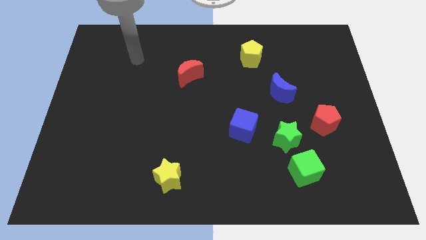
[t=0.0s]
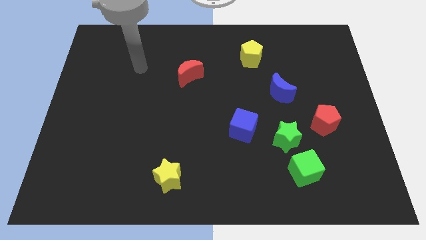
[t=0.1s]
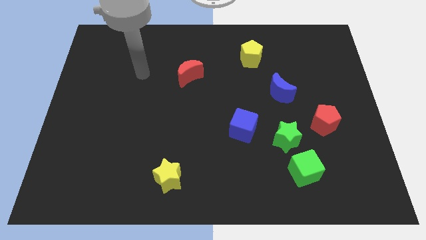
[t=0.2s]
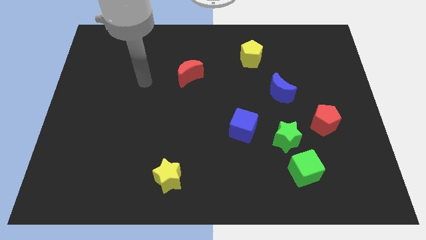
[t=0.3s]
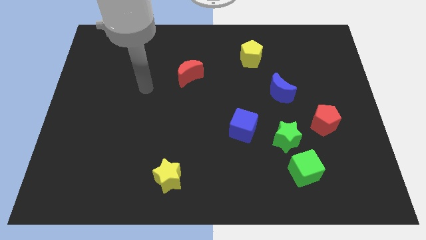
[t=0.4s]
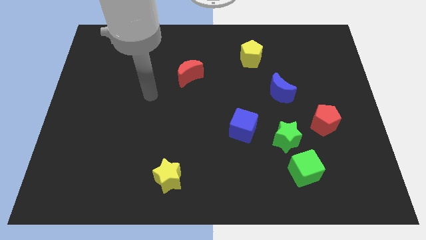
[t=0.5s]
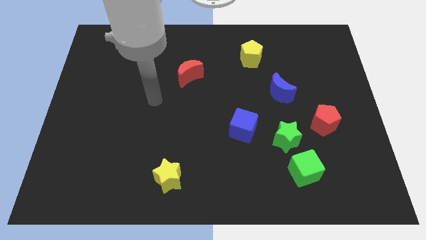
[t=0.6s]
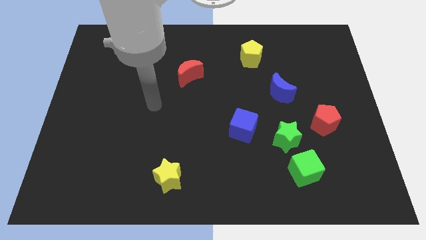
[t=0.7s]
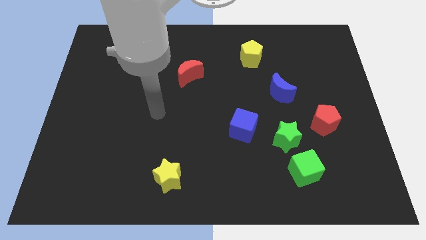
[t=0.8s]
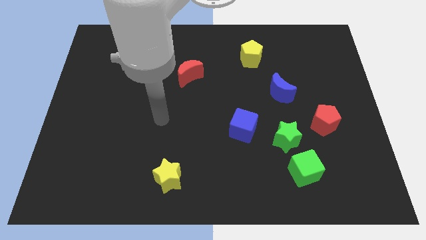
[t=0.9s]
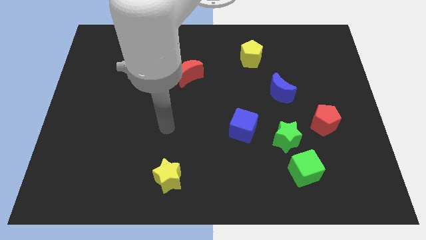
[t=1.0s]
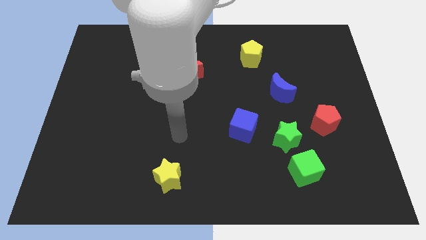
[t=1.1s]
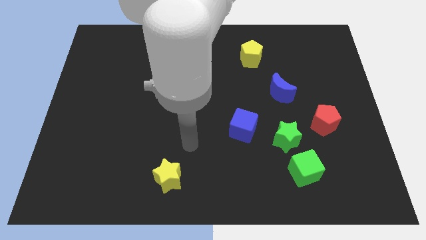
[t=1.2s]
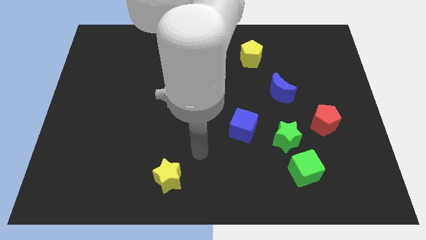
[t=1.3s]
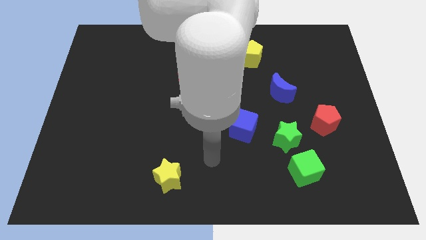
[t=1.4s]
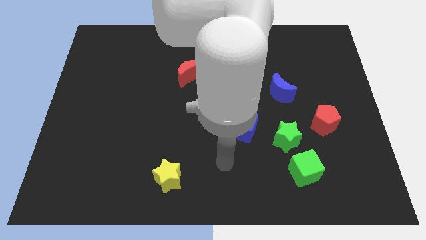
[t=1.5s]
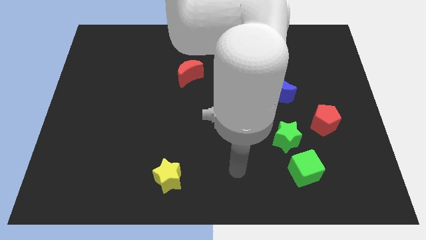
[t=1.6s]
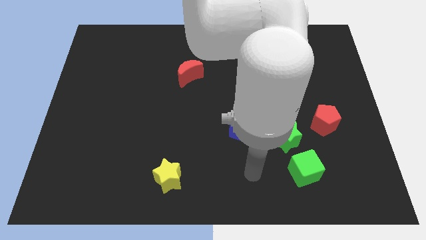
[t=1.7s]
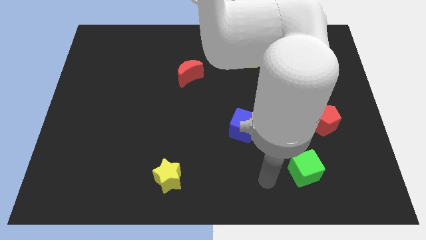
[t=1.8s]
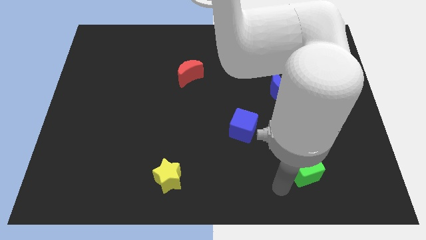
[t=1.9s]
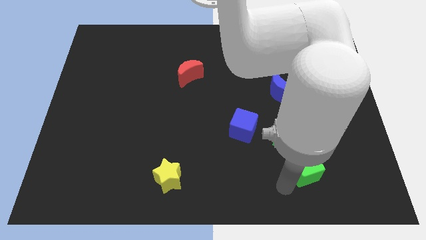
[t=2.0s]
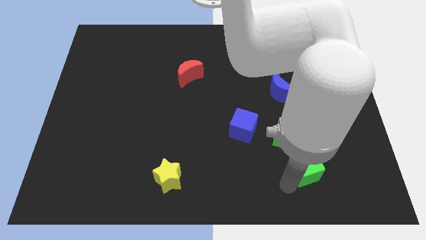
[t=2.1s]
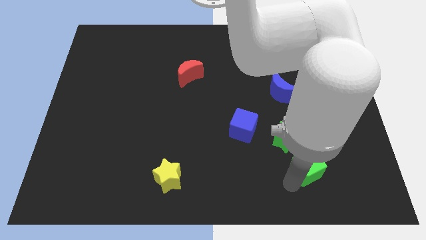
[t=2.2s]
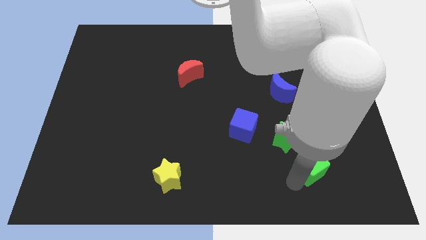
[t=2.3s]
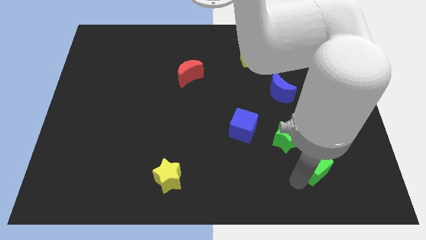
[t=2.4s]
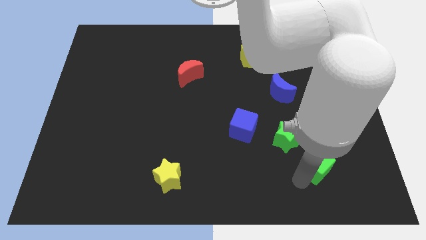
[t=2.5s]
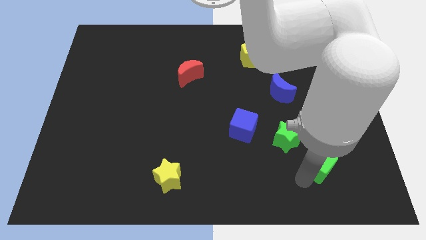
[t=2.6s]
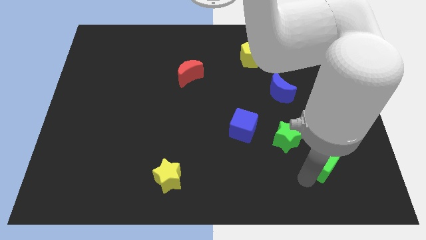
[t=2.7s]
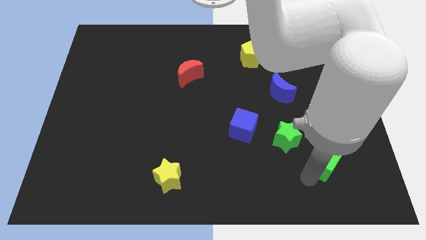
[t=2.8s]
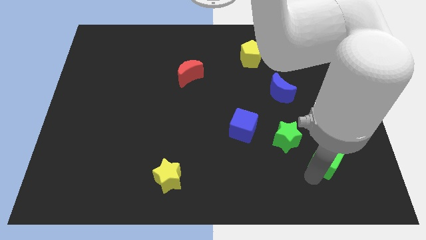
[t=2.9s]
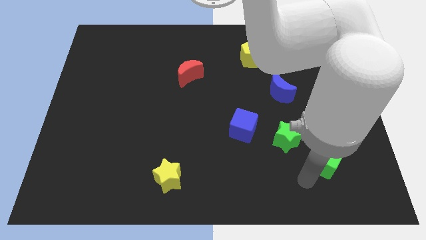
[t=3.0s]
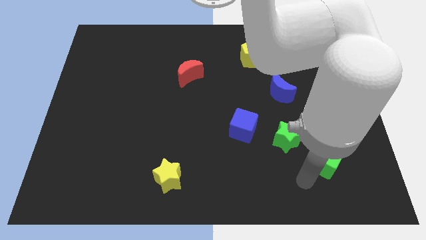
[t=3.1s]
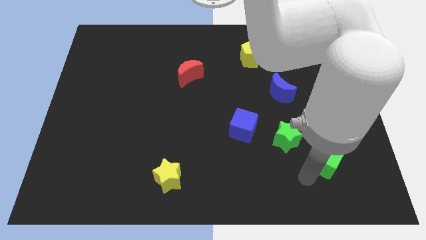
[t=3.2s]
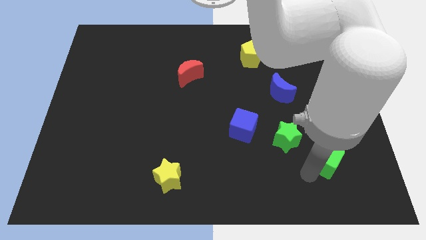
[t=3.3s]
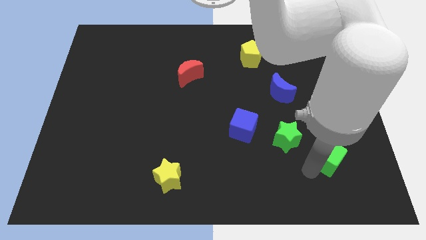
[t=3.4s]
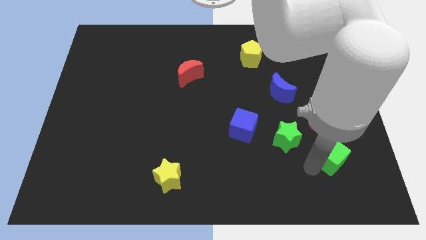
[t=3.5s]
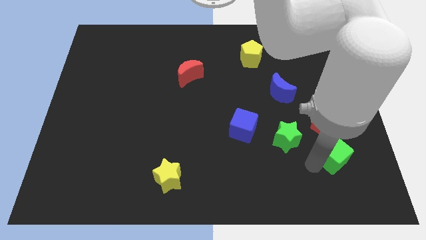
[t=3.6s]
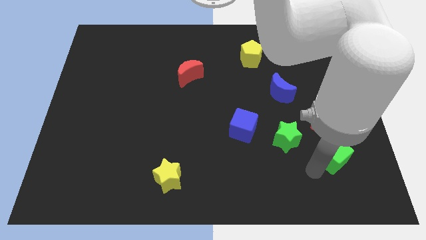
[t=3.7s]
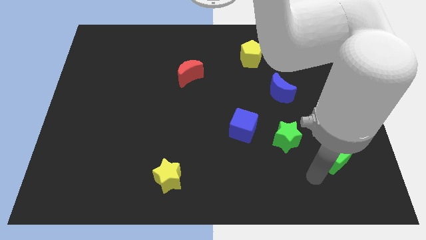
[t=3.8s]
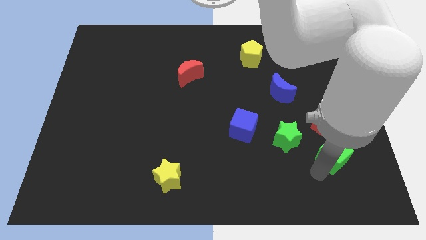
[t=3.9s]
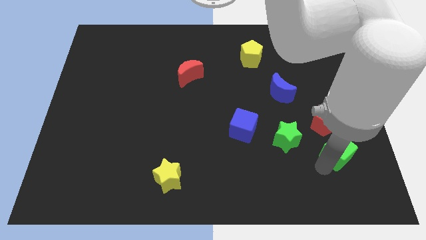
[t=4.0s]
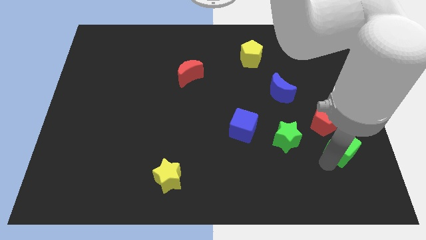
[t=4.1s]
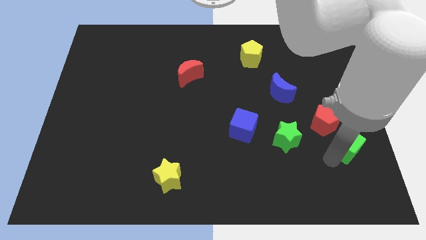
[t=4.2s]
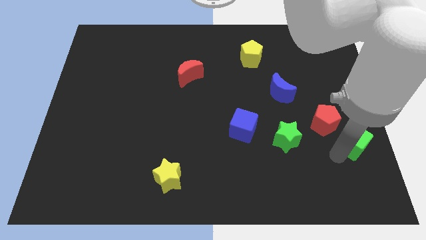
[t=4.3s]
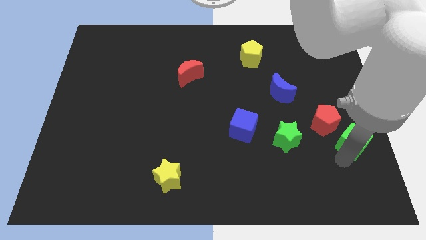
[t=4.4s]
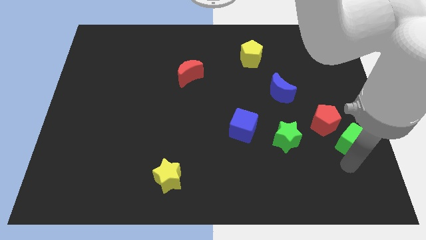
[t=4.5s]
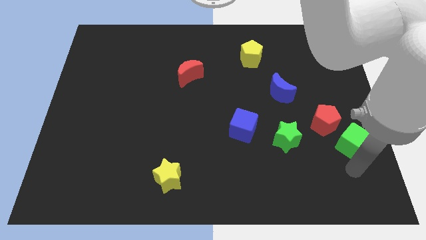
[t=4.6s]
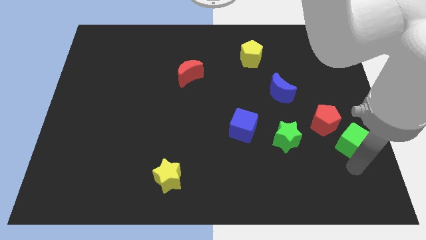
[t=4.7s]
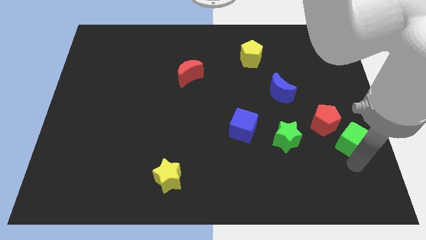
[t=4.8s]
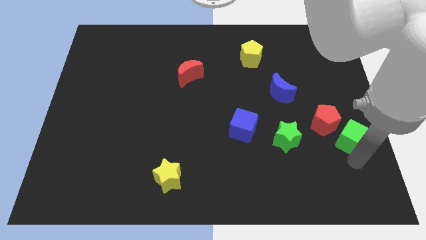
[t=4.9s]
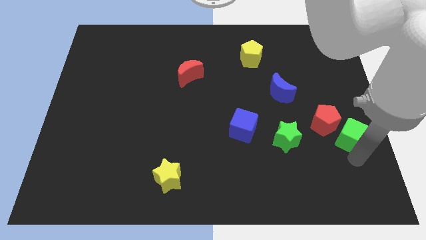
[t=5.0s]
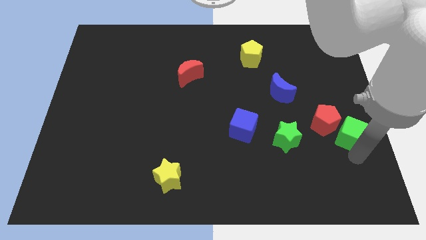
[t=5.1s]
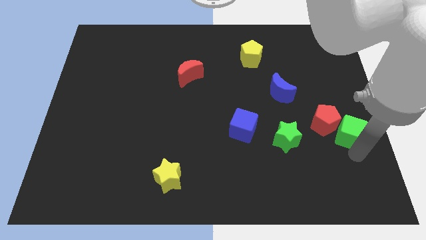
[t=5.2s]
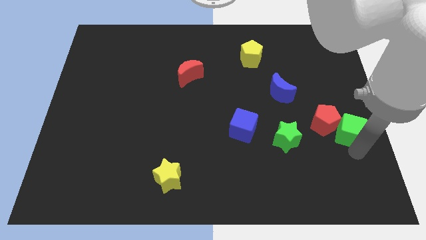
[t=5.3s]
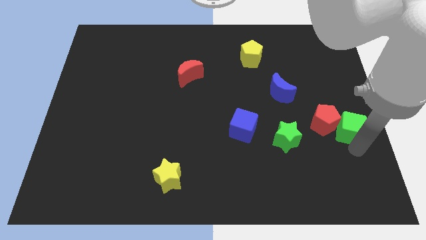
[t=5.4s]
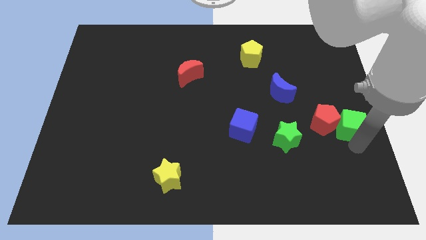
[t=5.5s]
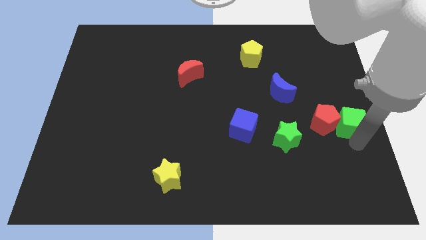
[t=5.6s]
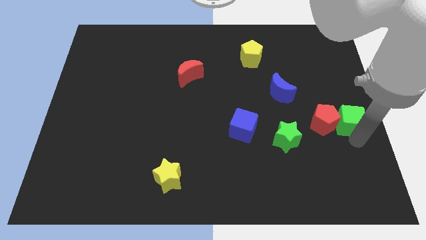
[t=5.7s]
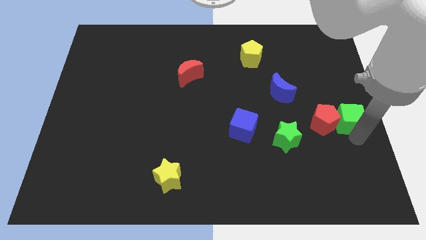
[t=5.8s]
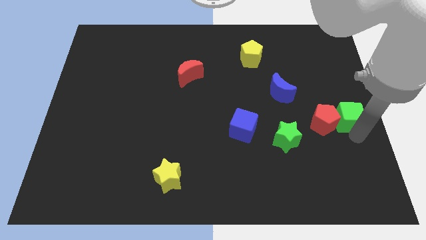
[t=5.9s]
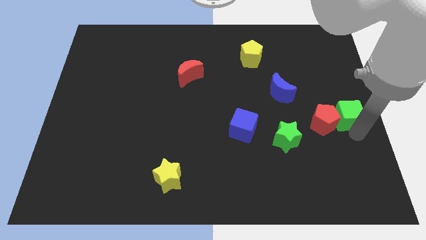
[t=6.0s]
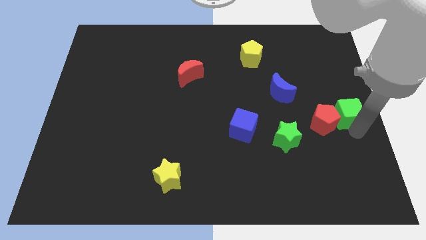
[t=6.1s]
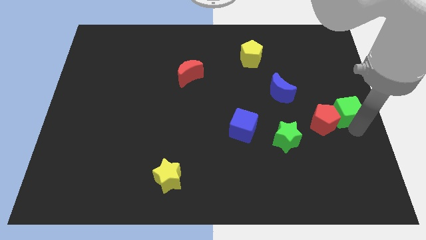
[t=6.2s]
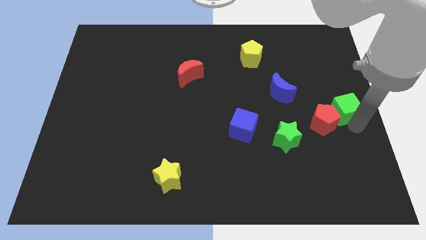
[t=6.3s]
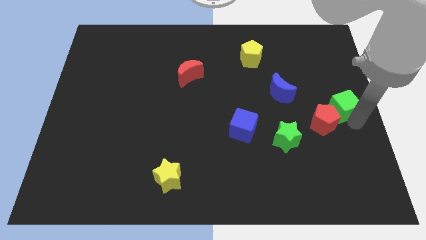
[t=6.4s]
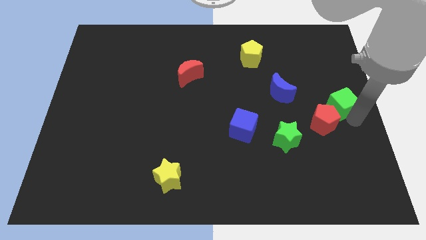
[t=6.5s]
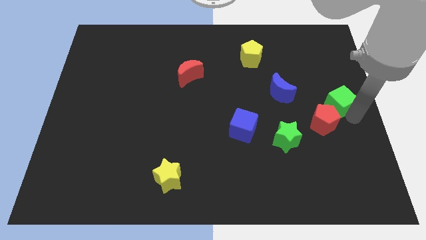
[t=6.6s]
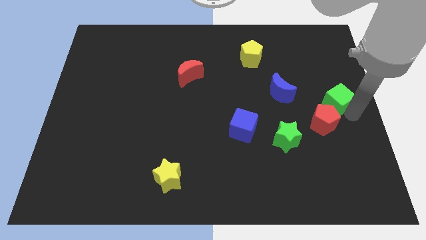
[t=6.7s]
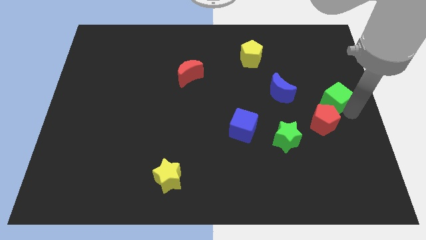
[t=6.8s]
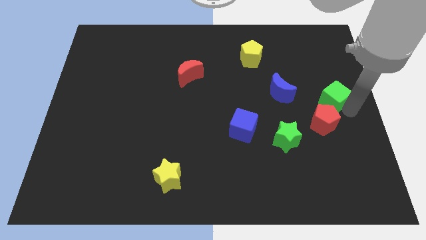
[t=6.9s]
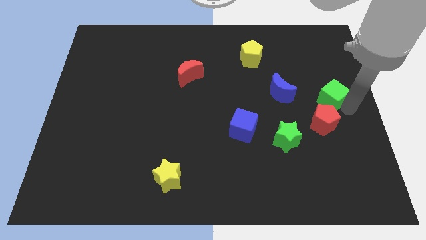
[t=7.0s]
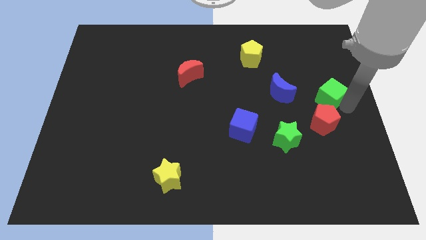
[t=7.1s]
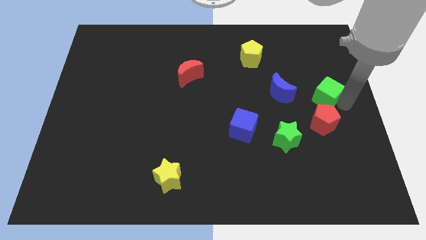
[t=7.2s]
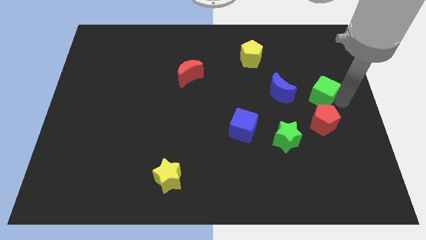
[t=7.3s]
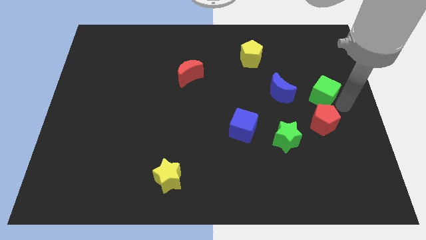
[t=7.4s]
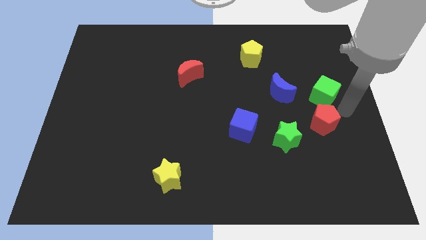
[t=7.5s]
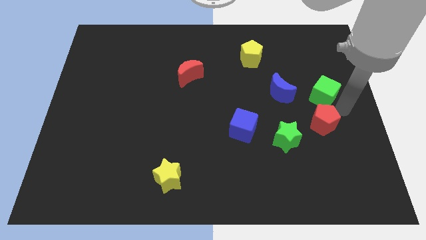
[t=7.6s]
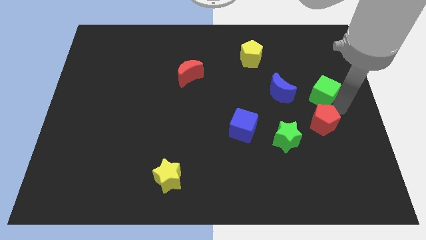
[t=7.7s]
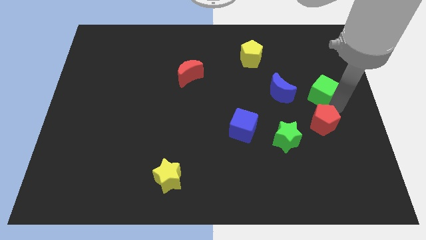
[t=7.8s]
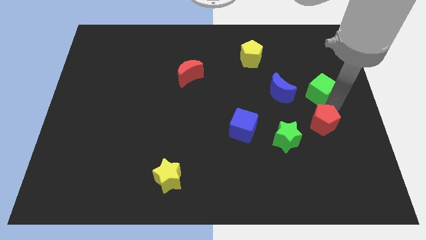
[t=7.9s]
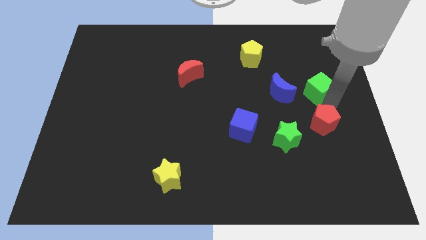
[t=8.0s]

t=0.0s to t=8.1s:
slide the green cube upwards

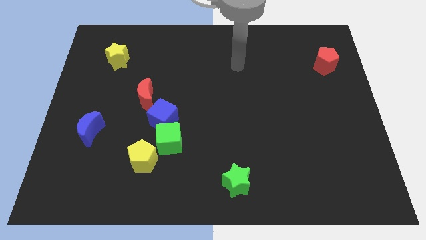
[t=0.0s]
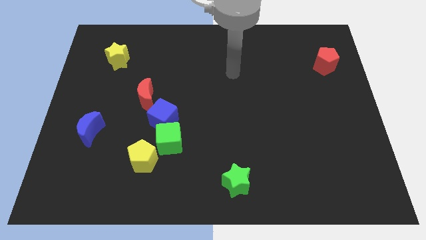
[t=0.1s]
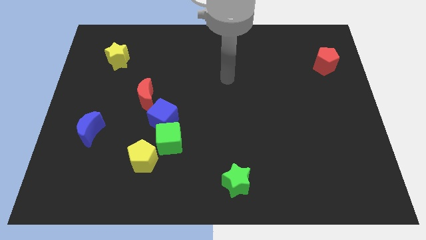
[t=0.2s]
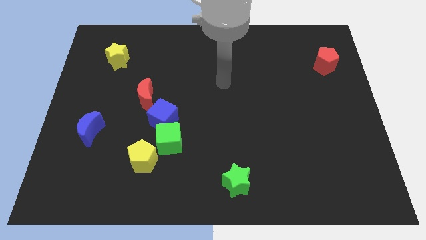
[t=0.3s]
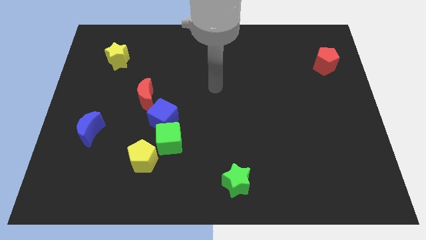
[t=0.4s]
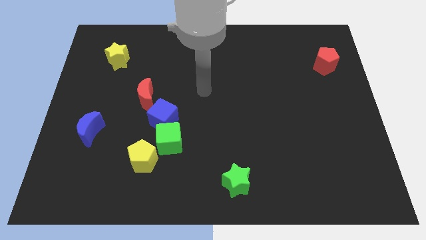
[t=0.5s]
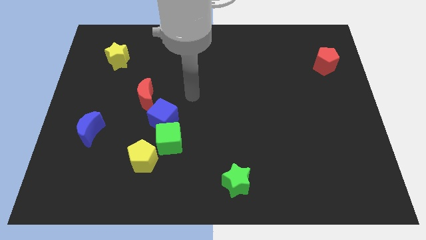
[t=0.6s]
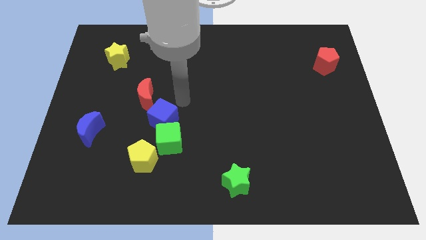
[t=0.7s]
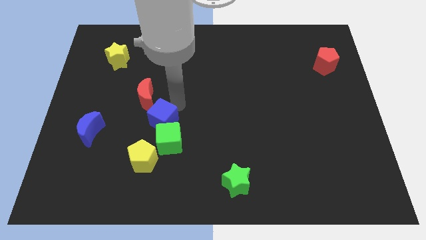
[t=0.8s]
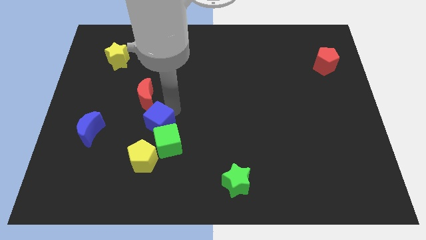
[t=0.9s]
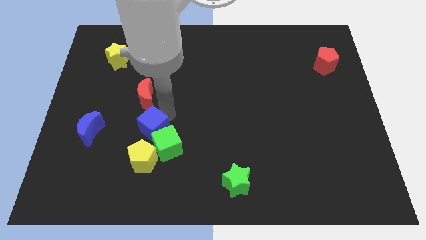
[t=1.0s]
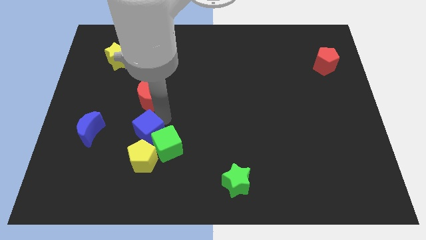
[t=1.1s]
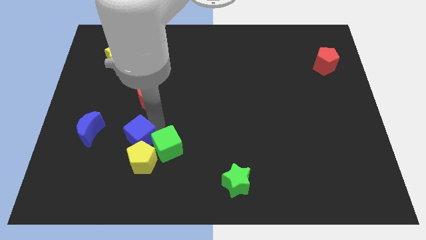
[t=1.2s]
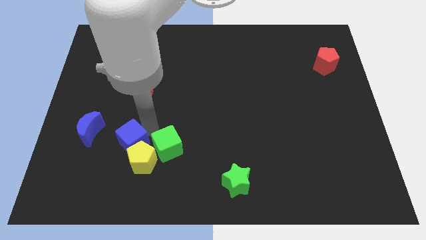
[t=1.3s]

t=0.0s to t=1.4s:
move the blue cube a bit down and to the left
